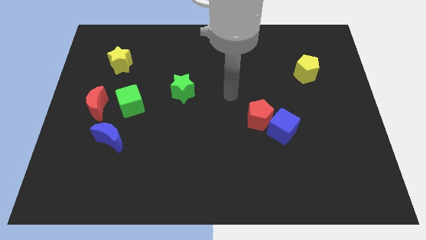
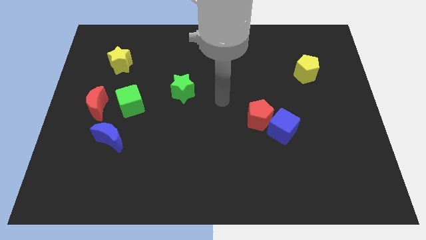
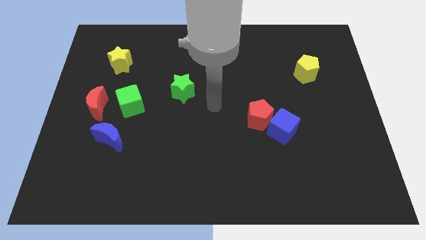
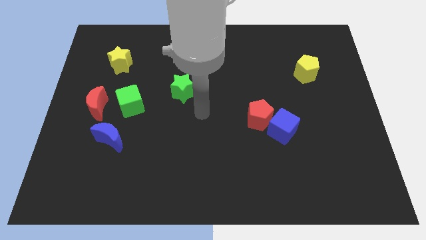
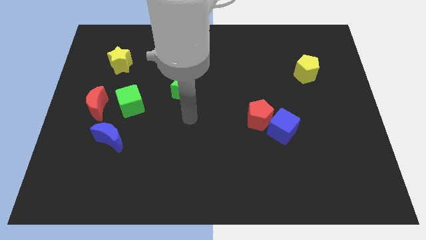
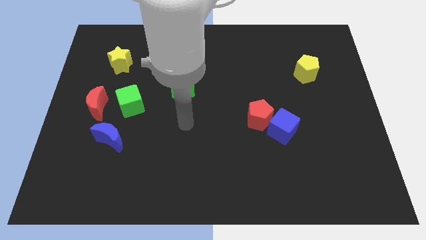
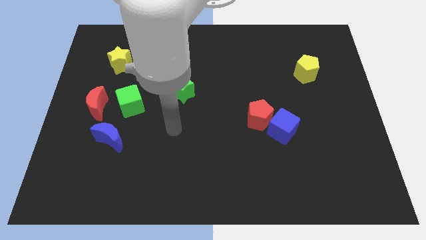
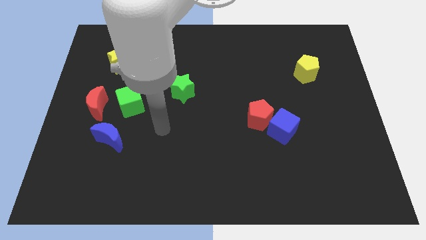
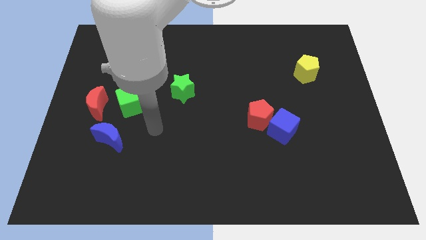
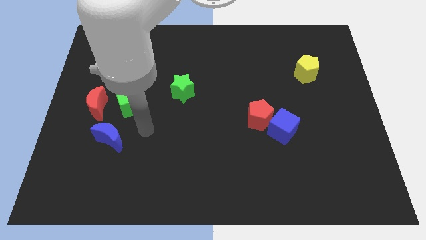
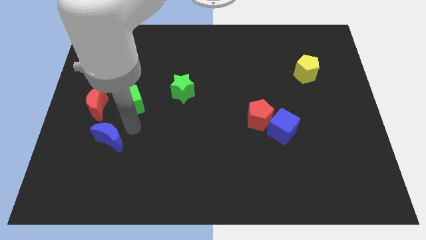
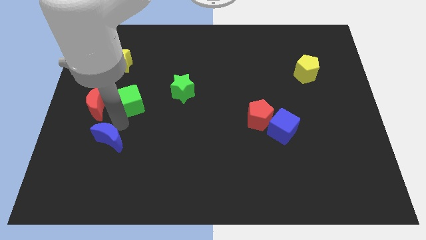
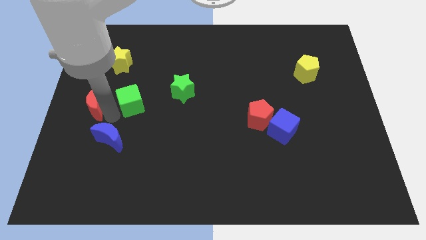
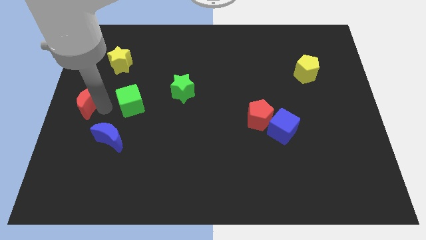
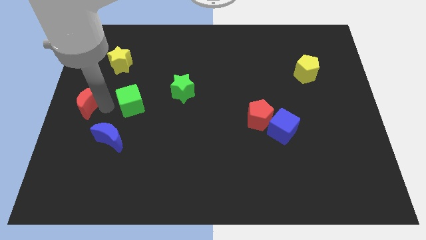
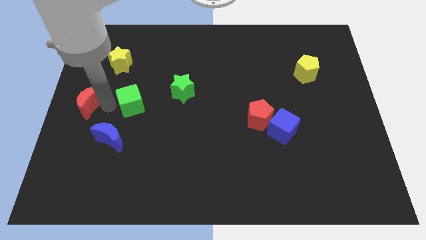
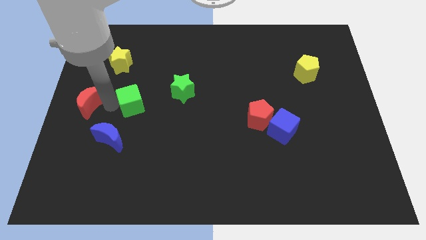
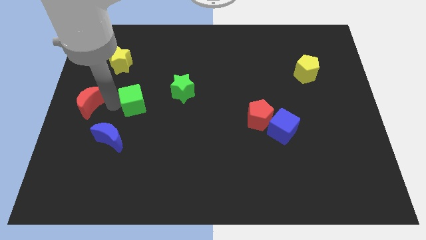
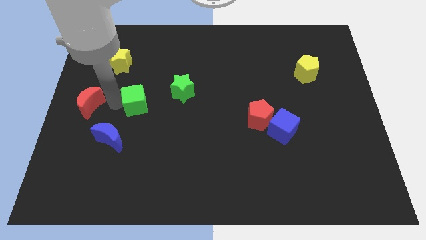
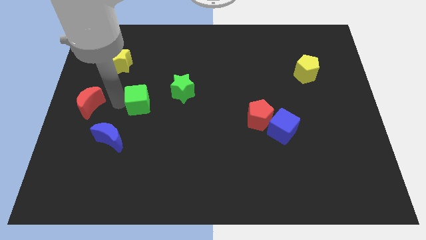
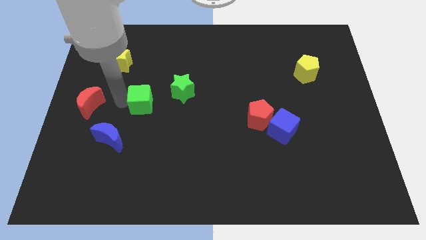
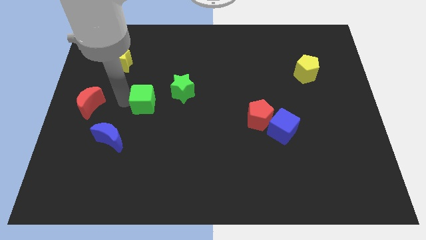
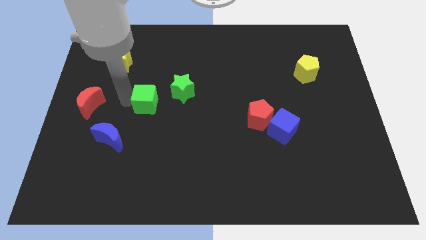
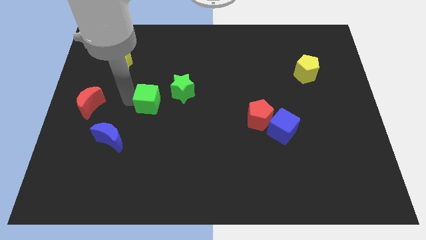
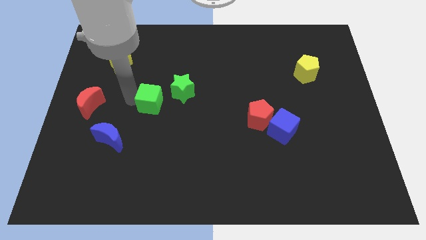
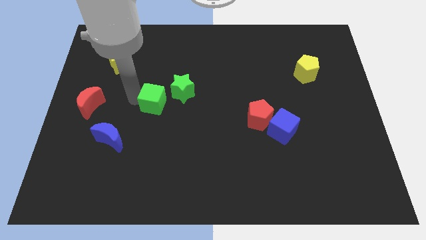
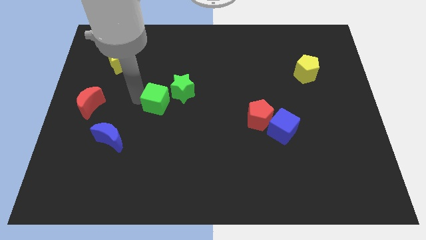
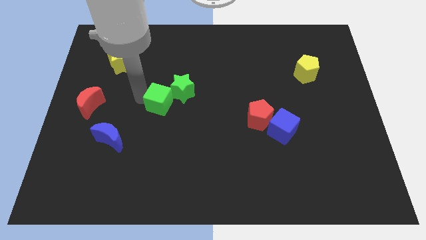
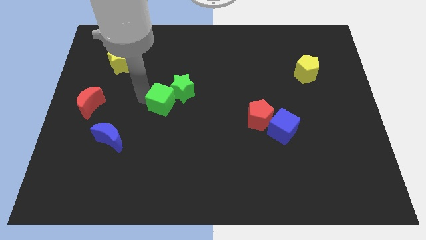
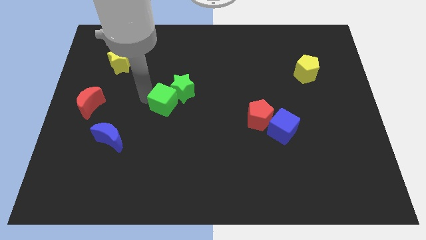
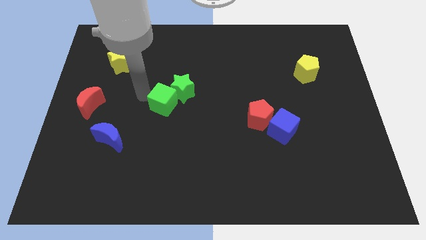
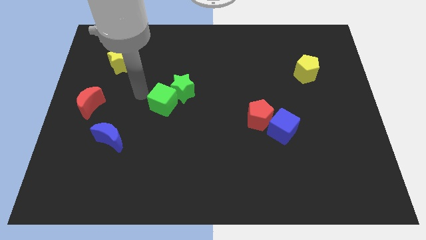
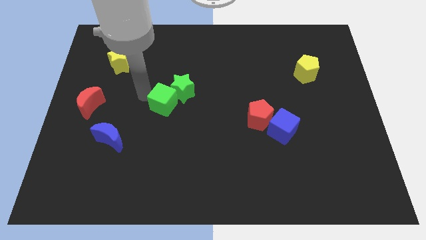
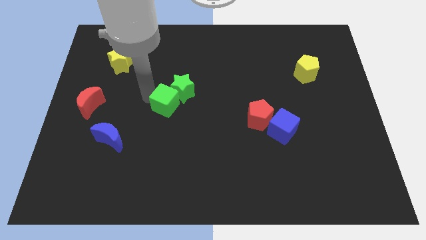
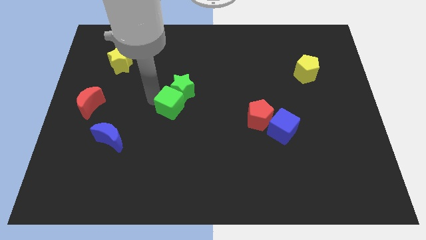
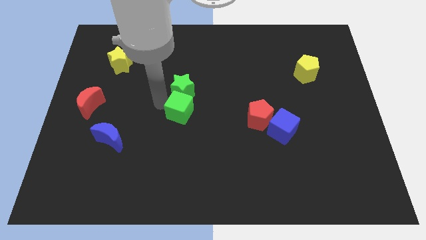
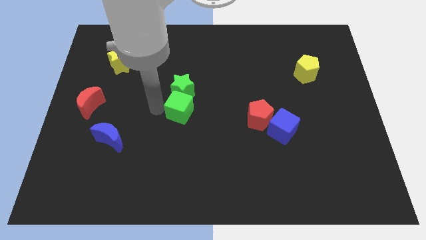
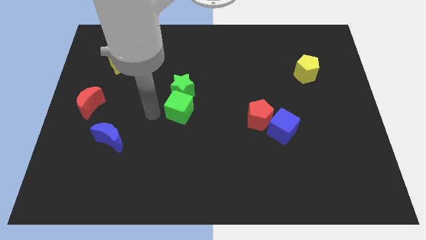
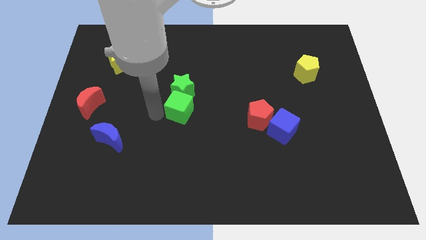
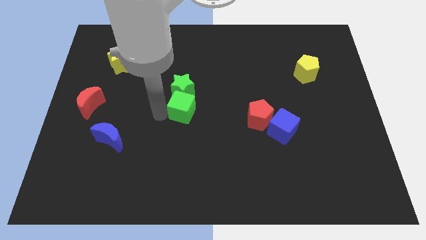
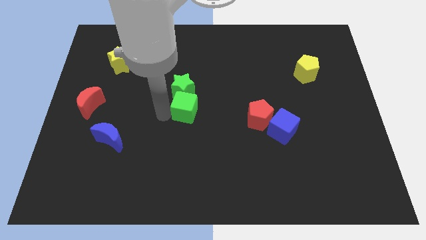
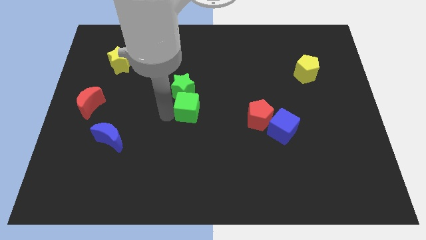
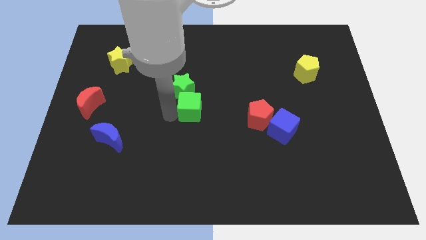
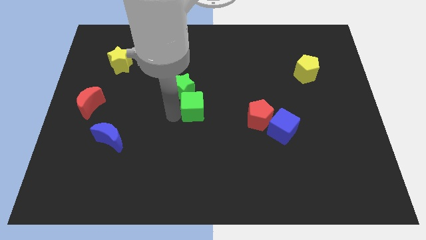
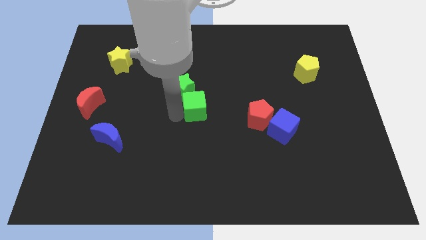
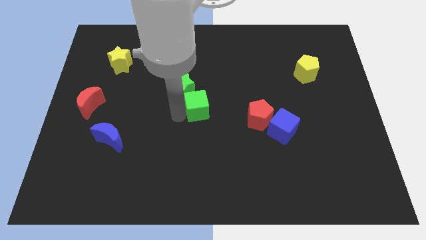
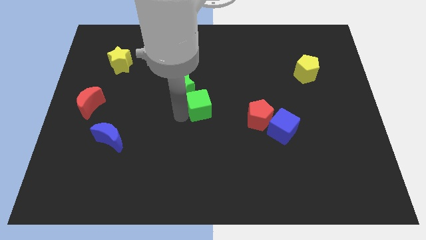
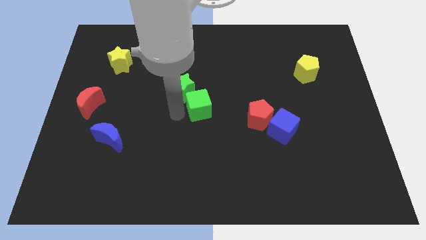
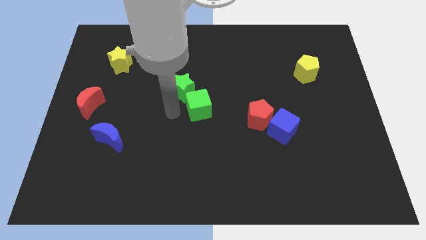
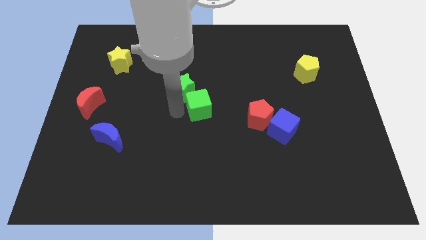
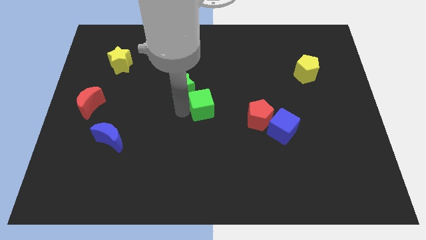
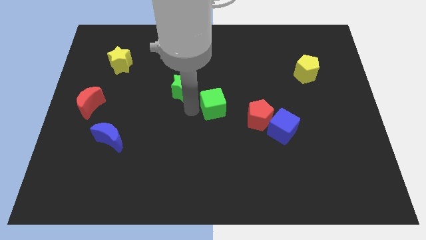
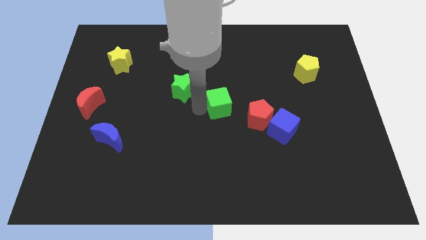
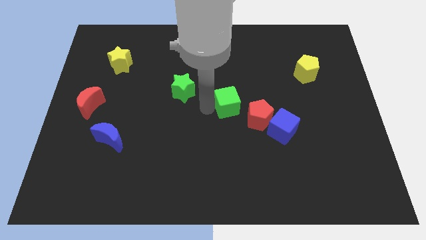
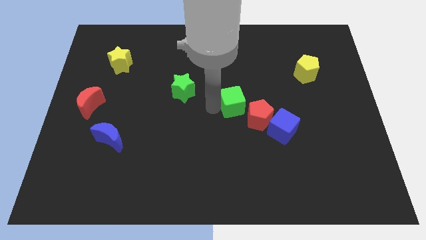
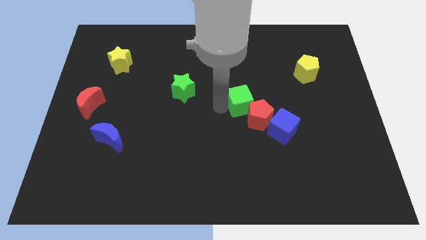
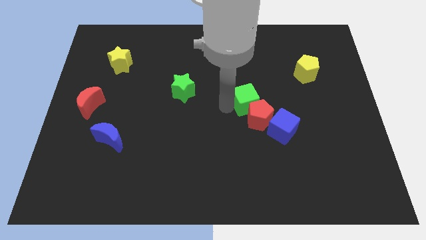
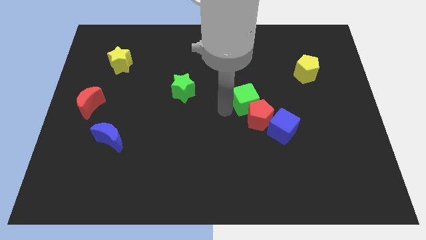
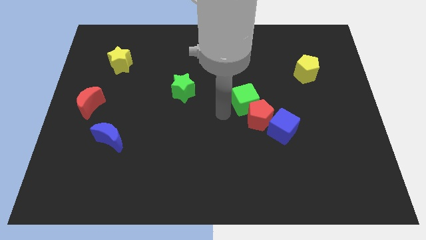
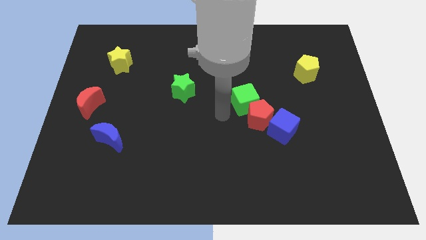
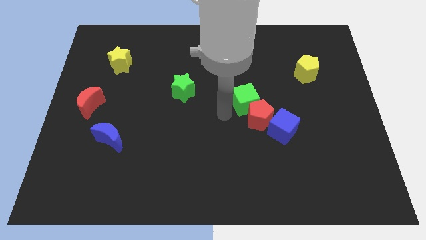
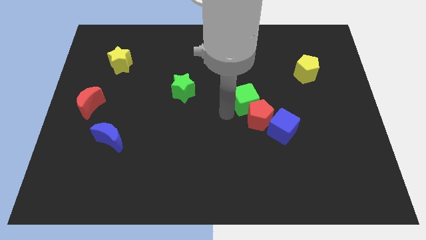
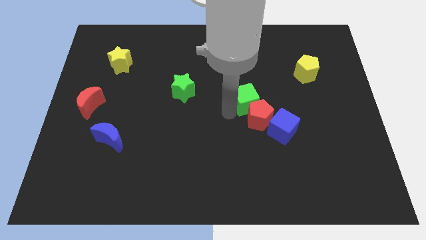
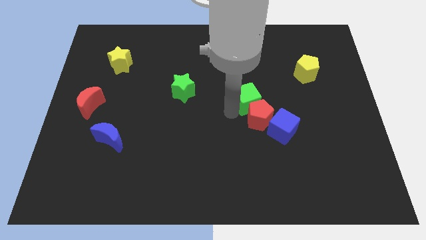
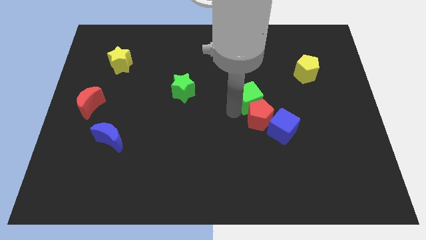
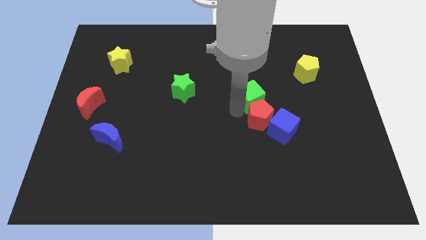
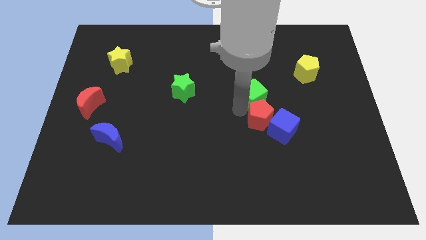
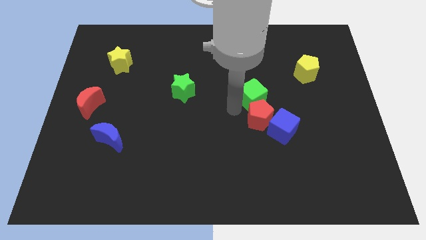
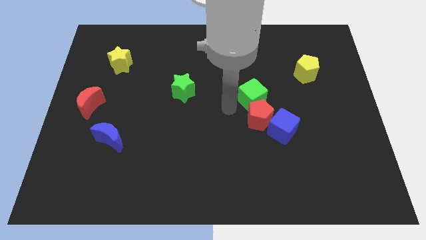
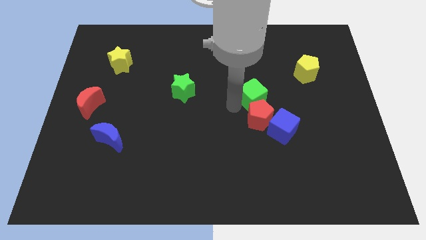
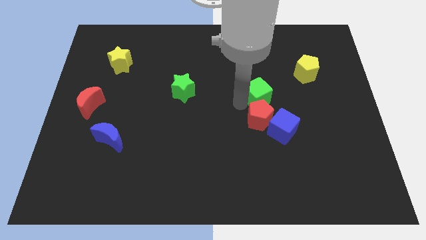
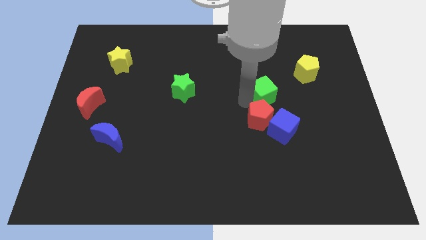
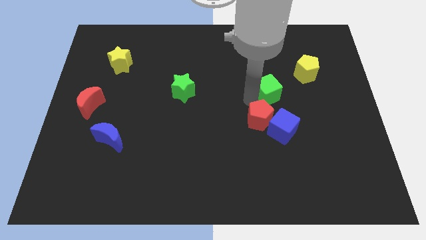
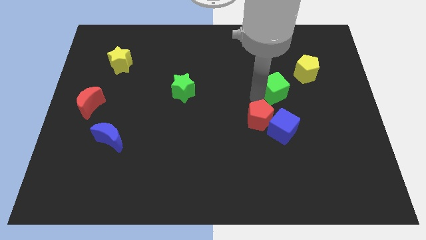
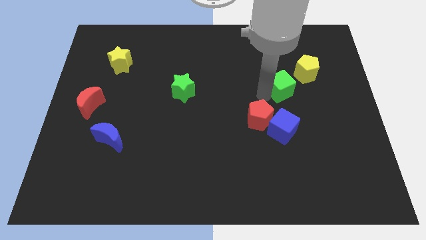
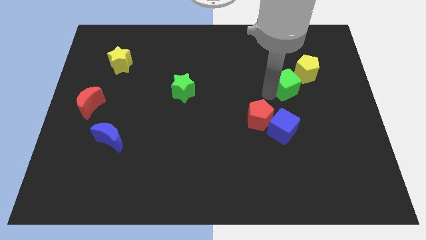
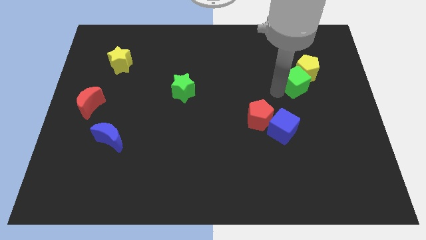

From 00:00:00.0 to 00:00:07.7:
push the green cube close to the yellow pentagon
